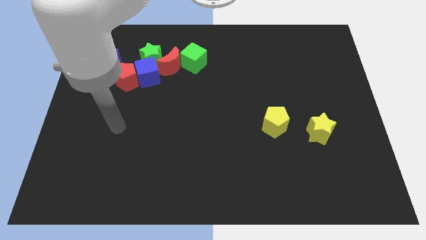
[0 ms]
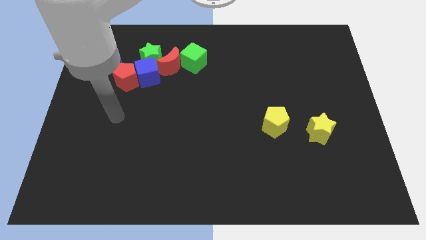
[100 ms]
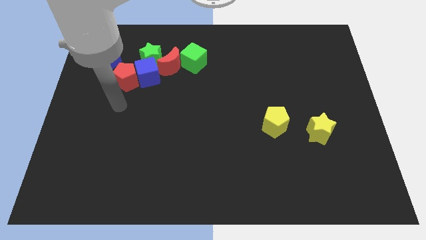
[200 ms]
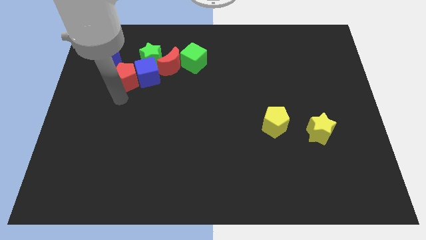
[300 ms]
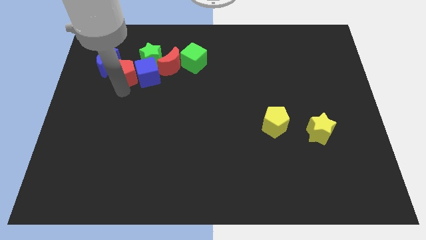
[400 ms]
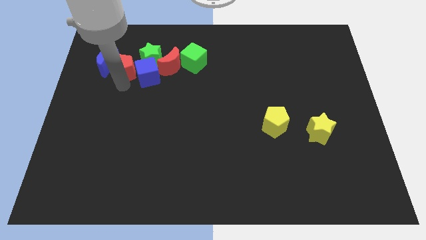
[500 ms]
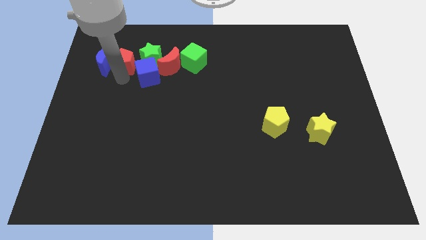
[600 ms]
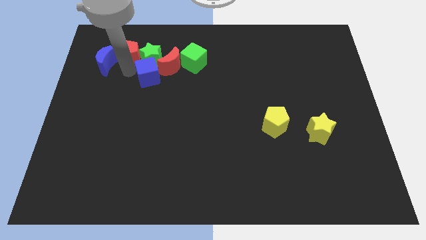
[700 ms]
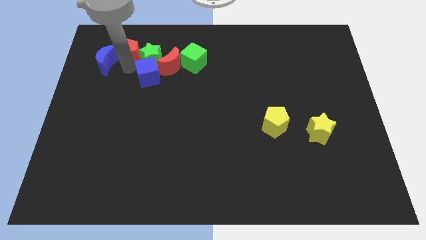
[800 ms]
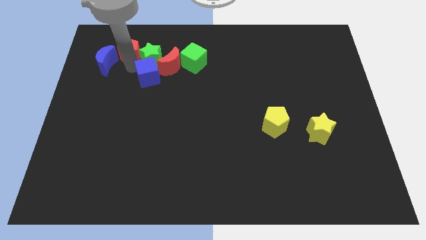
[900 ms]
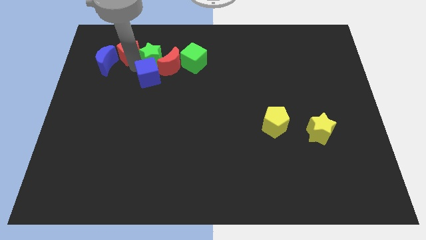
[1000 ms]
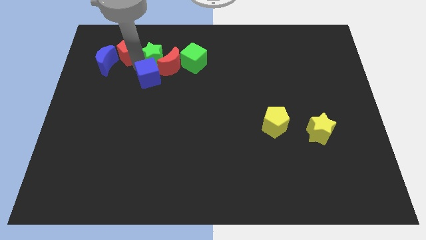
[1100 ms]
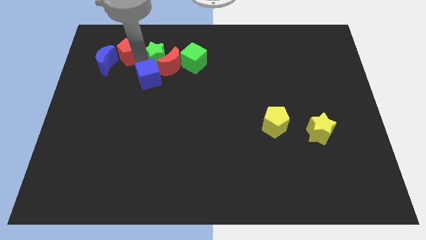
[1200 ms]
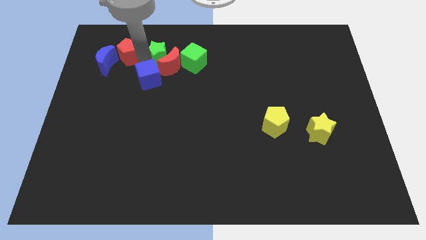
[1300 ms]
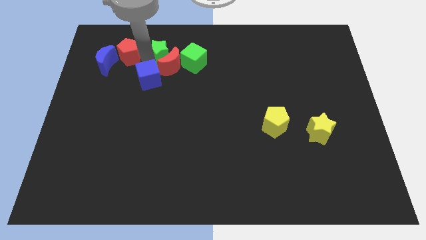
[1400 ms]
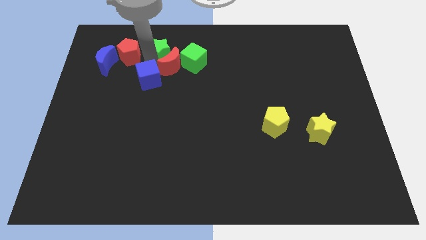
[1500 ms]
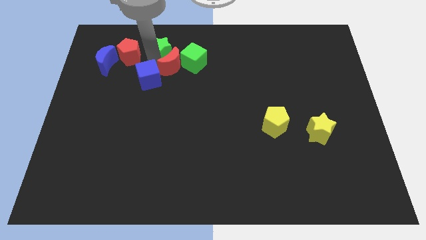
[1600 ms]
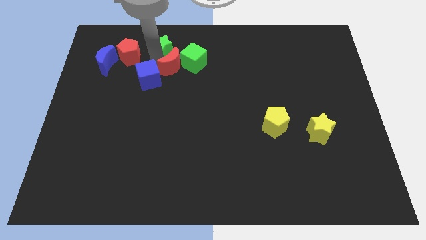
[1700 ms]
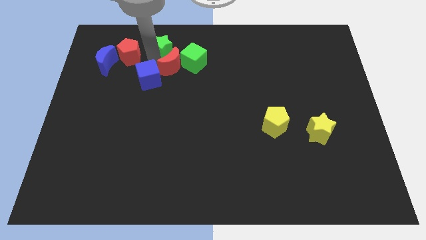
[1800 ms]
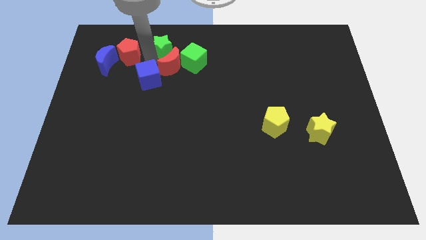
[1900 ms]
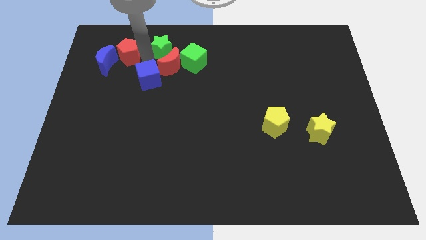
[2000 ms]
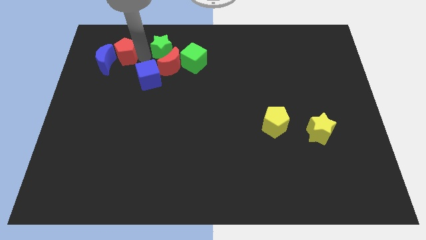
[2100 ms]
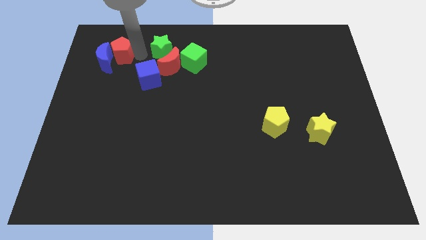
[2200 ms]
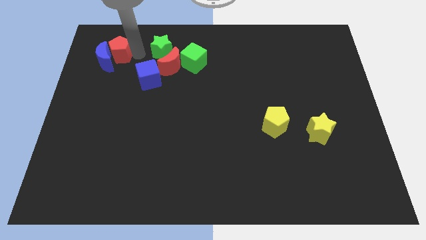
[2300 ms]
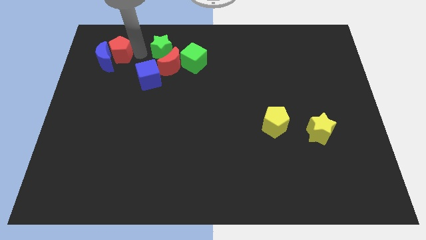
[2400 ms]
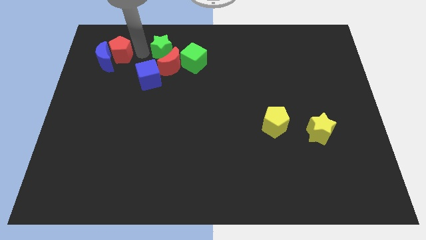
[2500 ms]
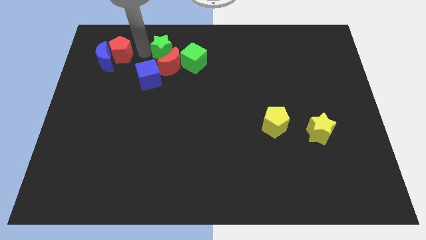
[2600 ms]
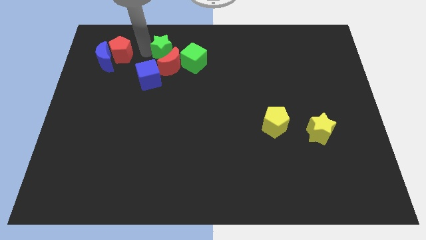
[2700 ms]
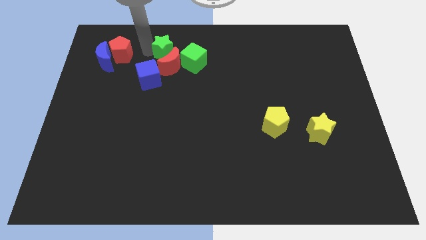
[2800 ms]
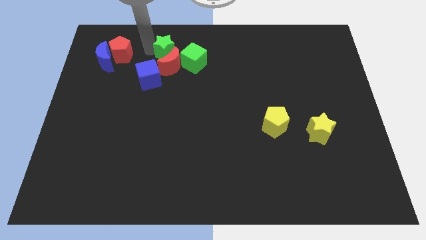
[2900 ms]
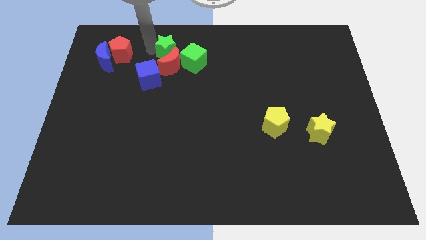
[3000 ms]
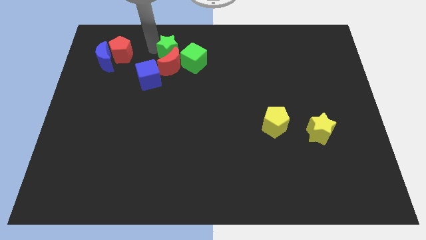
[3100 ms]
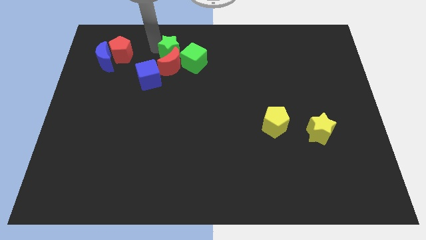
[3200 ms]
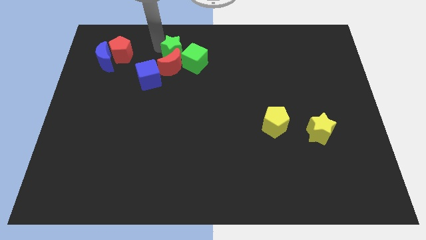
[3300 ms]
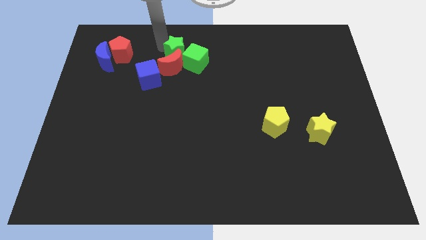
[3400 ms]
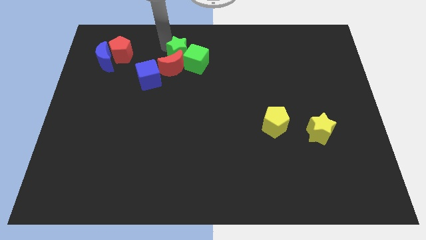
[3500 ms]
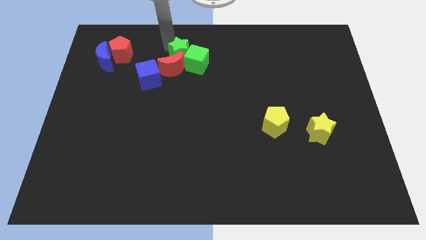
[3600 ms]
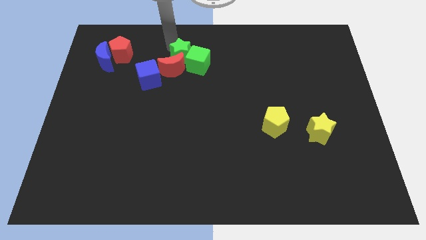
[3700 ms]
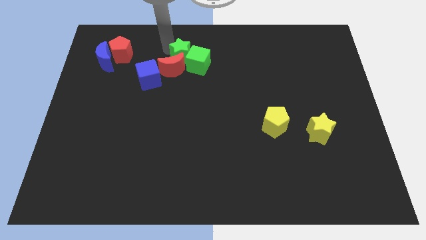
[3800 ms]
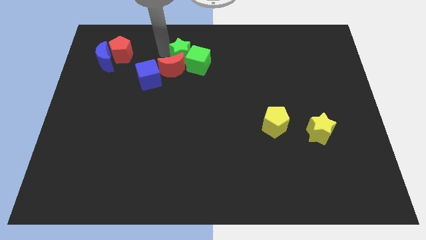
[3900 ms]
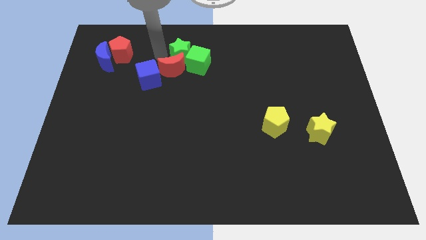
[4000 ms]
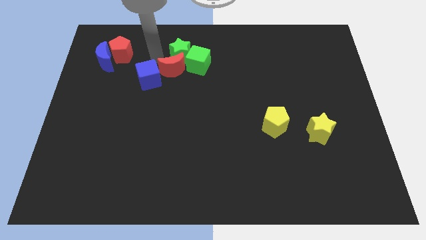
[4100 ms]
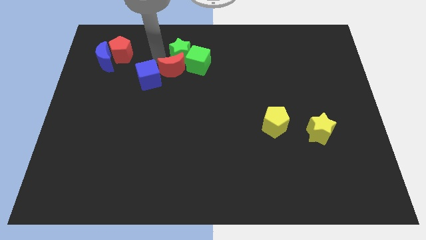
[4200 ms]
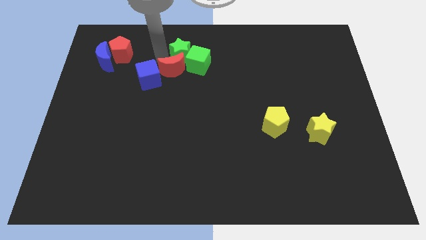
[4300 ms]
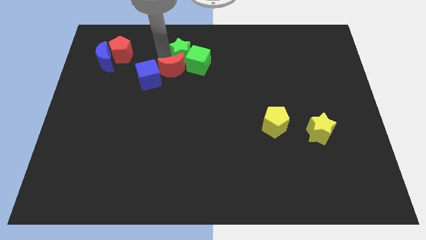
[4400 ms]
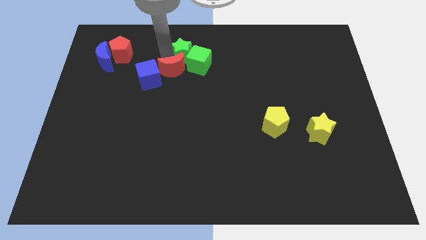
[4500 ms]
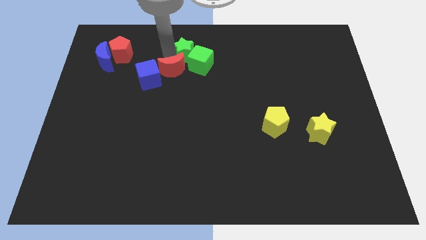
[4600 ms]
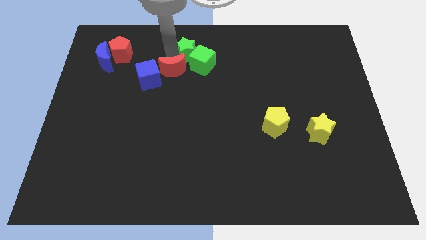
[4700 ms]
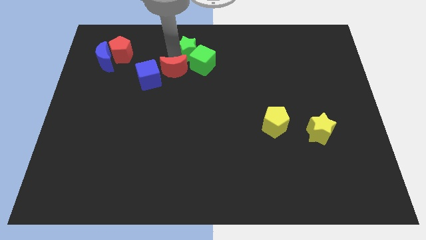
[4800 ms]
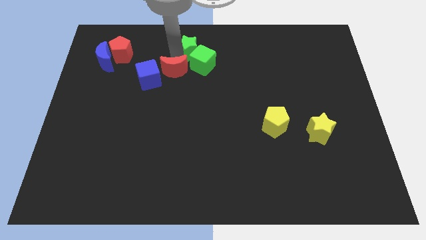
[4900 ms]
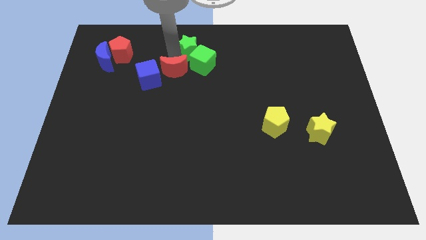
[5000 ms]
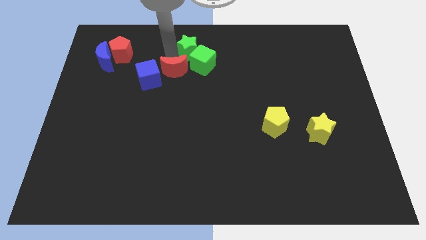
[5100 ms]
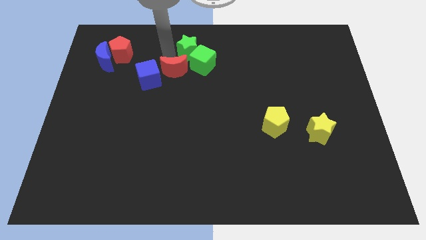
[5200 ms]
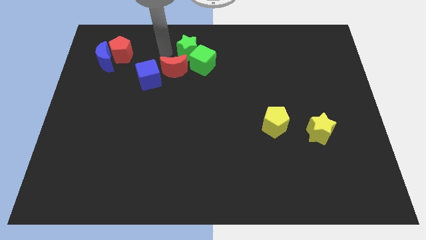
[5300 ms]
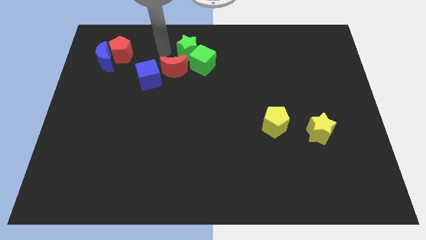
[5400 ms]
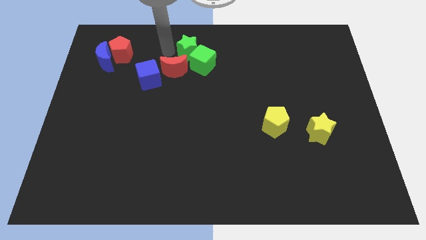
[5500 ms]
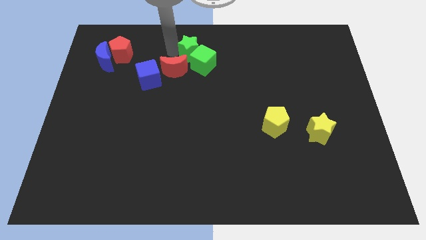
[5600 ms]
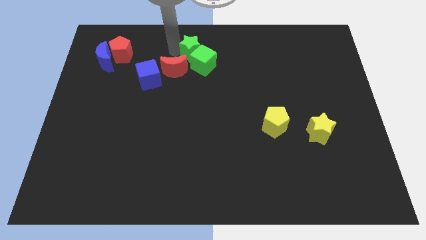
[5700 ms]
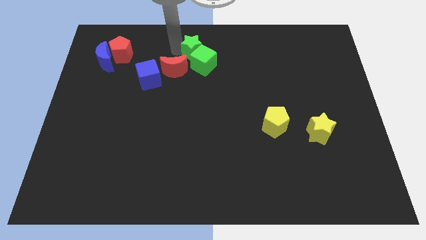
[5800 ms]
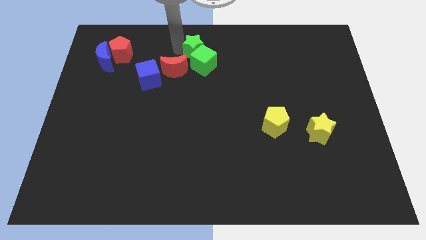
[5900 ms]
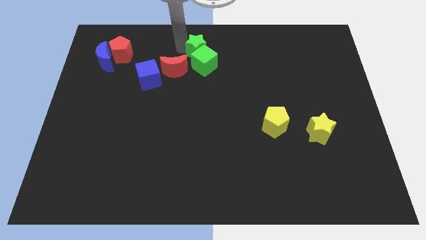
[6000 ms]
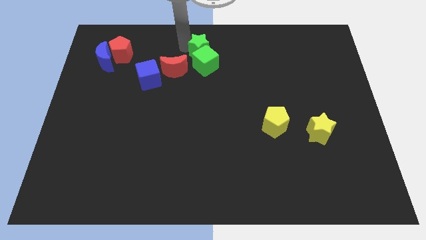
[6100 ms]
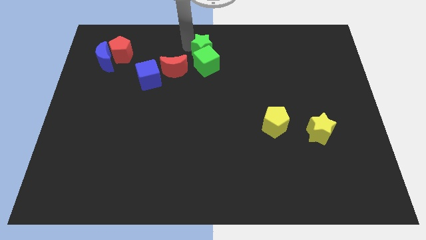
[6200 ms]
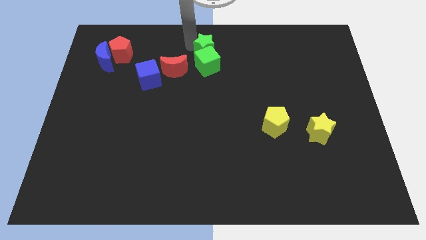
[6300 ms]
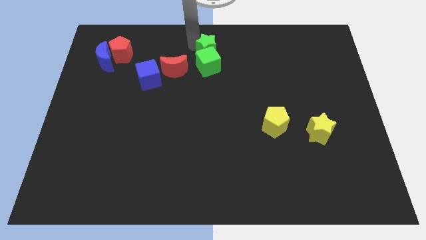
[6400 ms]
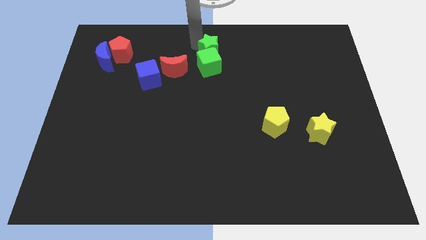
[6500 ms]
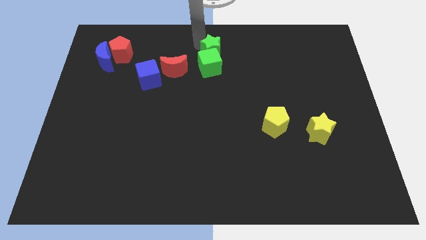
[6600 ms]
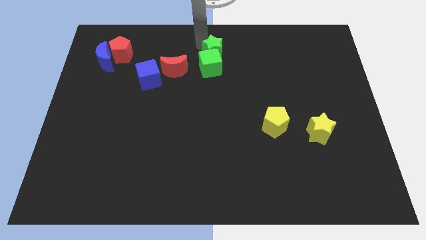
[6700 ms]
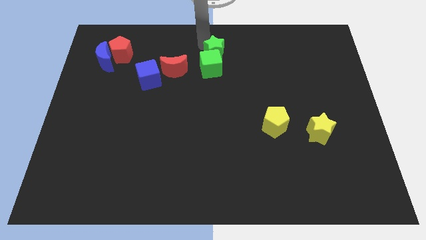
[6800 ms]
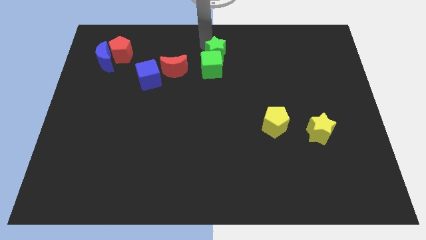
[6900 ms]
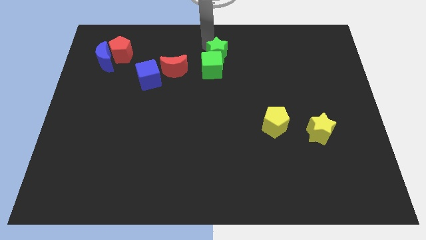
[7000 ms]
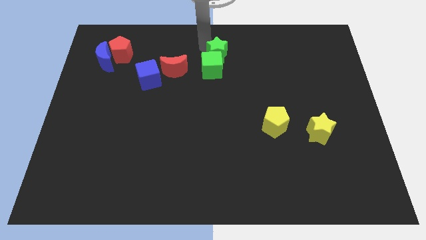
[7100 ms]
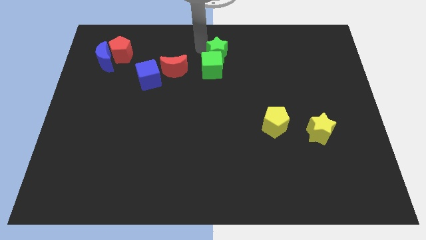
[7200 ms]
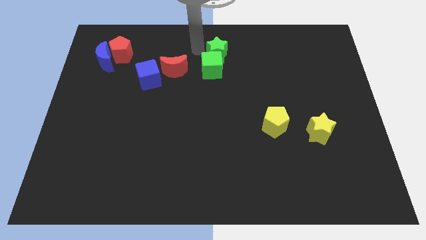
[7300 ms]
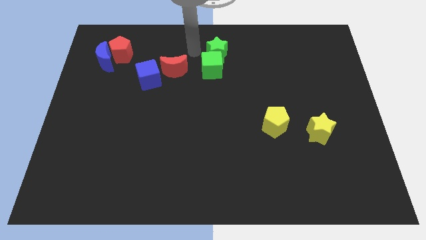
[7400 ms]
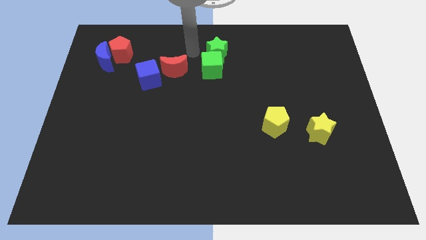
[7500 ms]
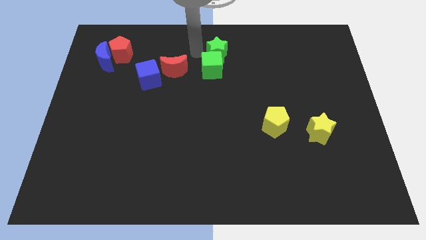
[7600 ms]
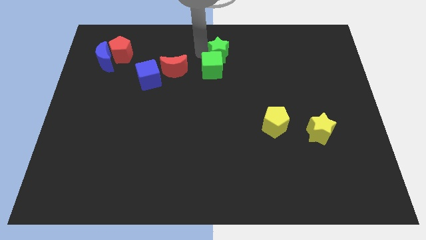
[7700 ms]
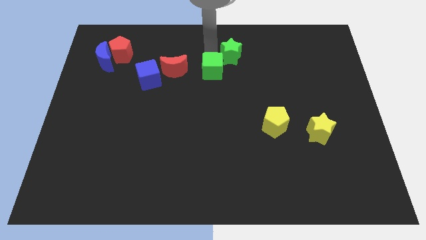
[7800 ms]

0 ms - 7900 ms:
push the green star right
